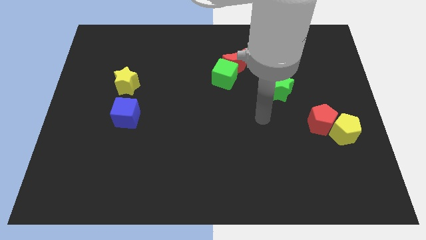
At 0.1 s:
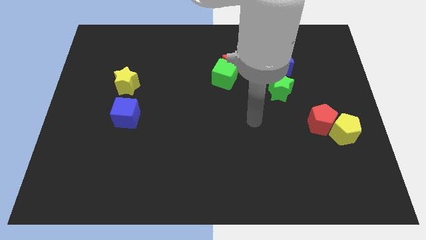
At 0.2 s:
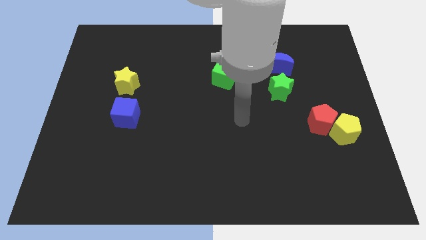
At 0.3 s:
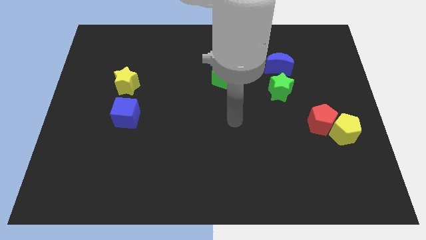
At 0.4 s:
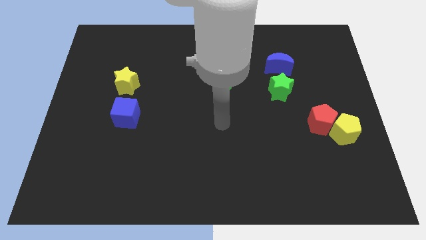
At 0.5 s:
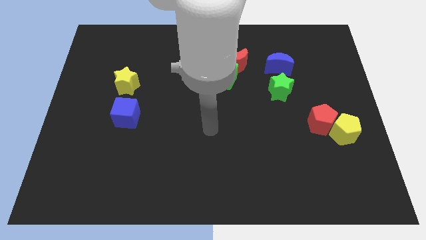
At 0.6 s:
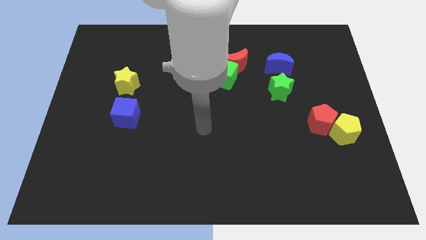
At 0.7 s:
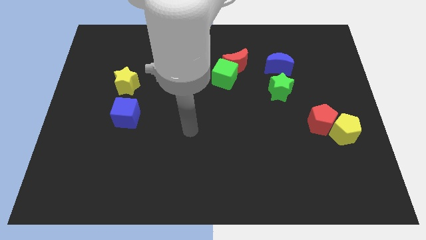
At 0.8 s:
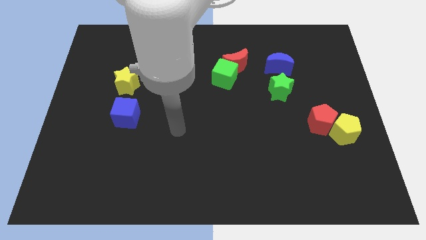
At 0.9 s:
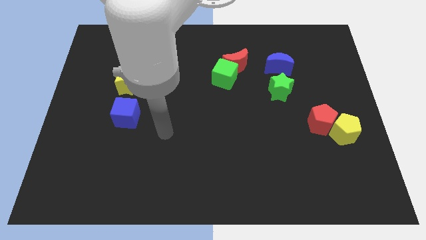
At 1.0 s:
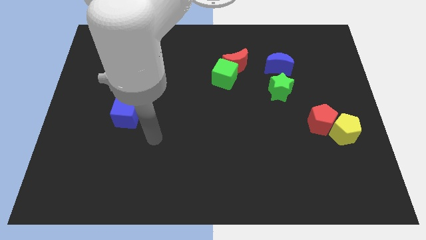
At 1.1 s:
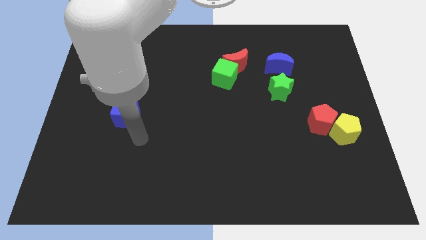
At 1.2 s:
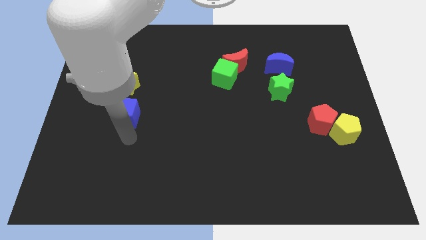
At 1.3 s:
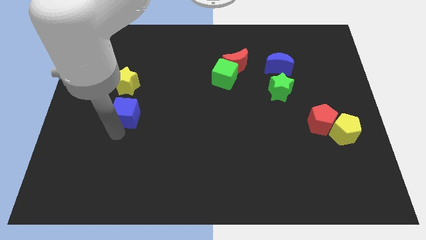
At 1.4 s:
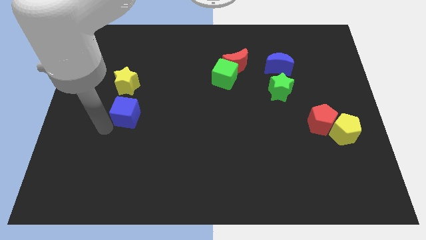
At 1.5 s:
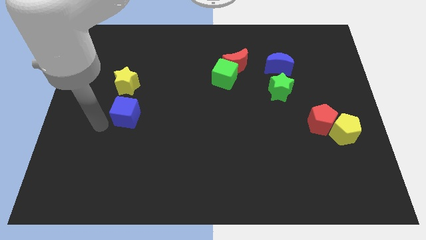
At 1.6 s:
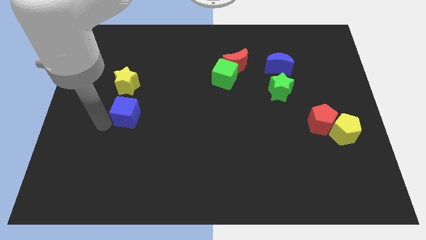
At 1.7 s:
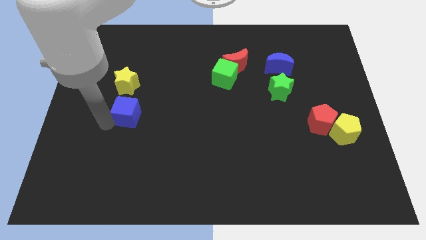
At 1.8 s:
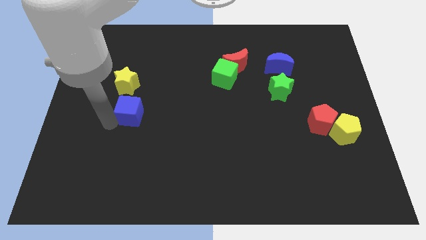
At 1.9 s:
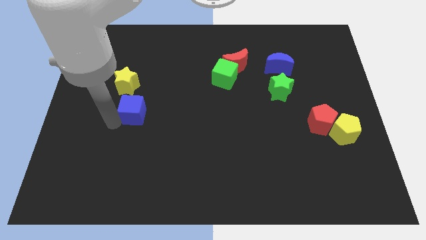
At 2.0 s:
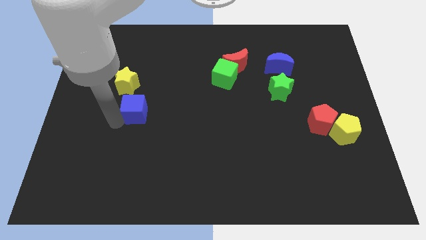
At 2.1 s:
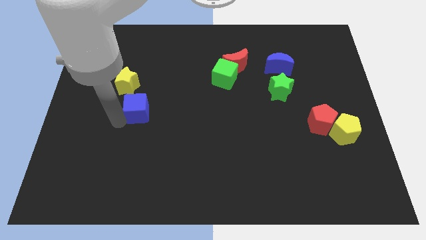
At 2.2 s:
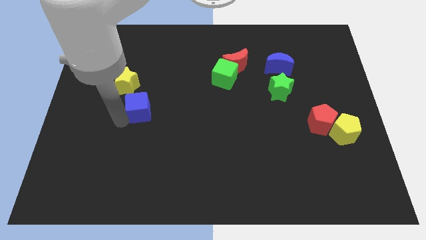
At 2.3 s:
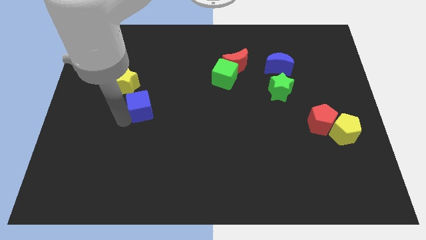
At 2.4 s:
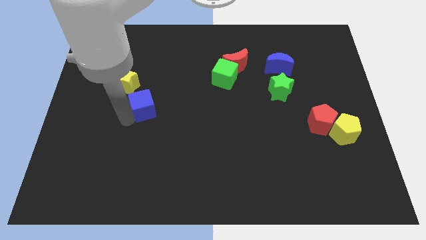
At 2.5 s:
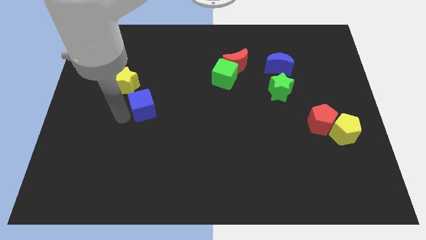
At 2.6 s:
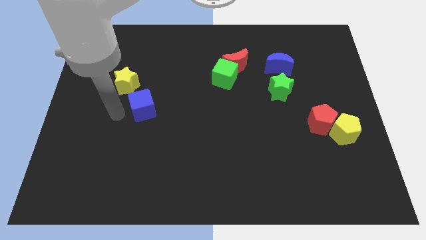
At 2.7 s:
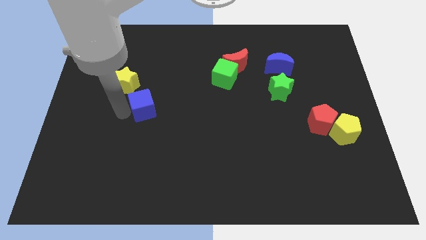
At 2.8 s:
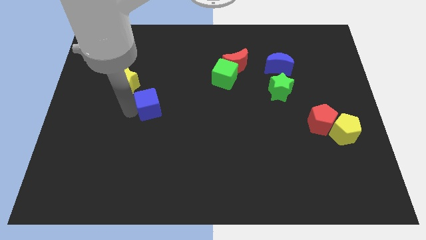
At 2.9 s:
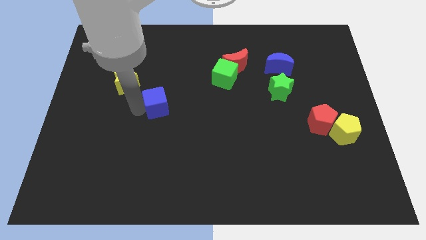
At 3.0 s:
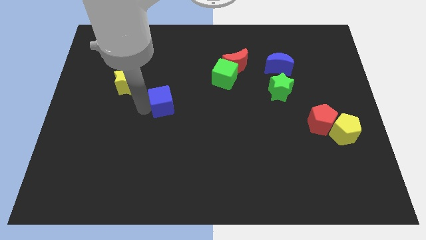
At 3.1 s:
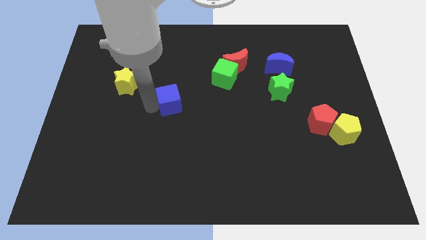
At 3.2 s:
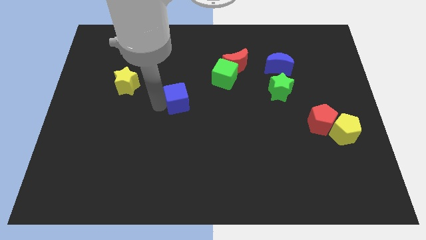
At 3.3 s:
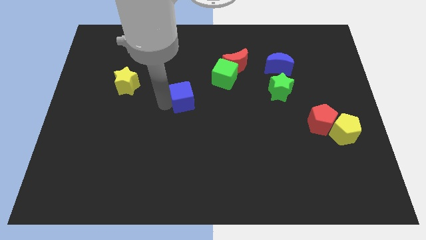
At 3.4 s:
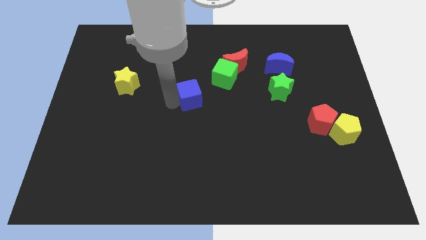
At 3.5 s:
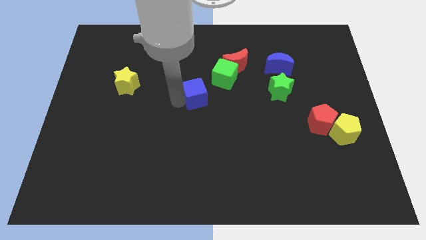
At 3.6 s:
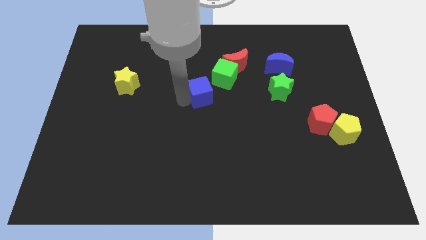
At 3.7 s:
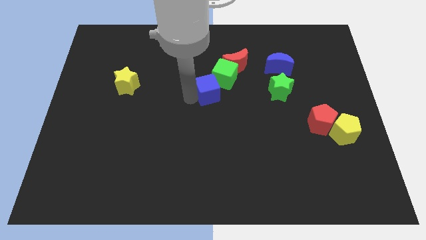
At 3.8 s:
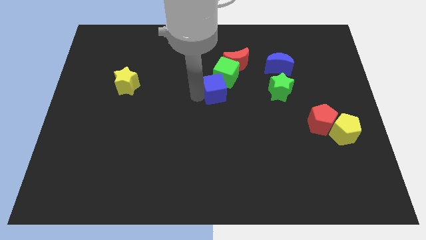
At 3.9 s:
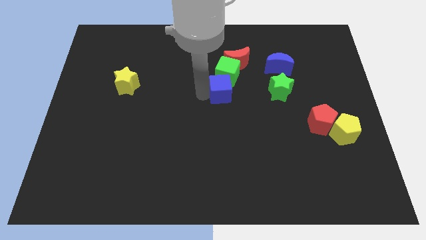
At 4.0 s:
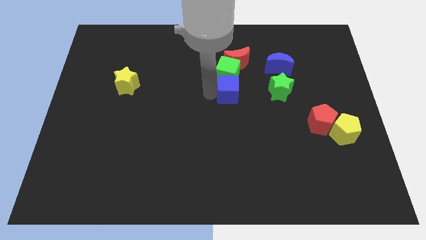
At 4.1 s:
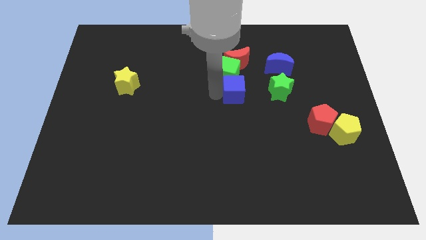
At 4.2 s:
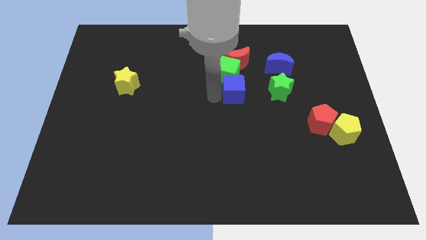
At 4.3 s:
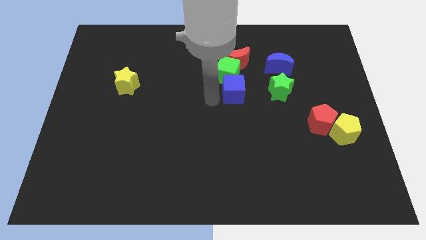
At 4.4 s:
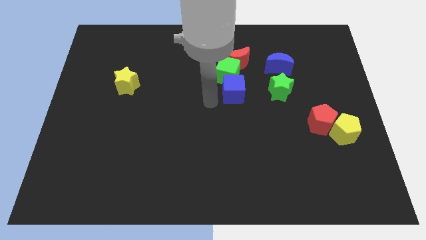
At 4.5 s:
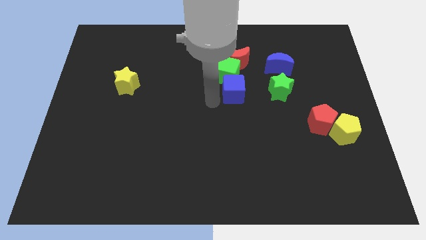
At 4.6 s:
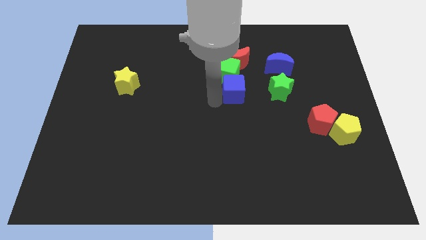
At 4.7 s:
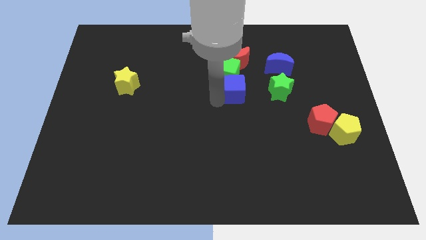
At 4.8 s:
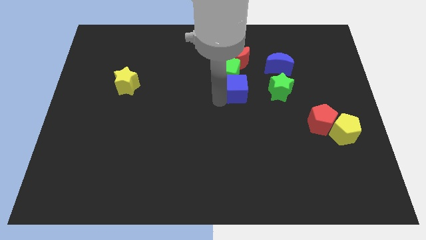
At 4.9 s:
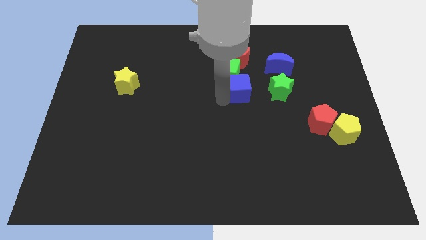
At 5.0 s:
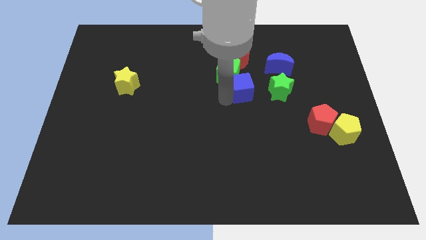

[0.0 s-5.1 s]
slide the blue cube diagonally down and to the left of the blue moon

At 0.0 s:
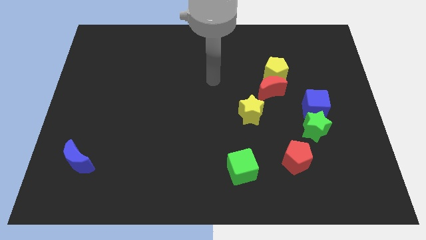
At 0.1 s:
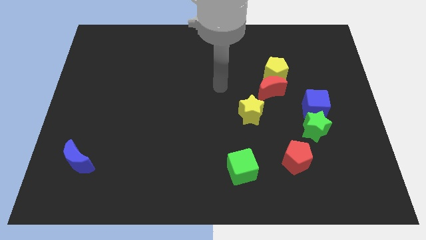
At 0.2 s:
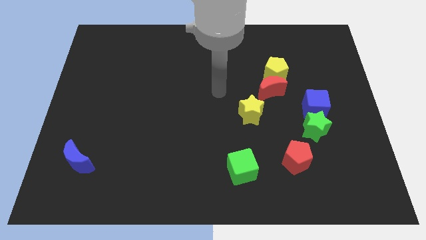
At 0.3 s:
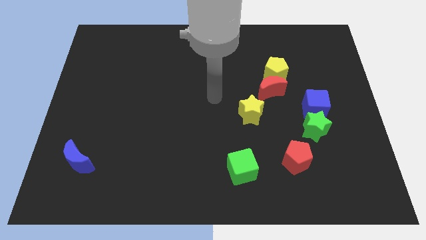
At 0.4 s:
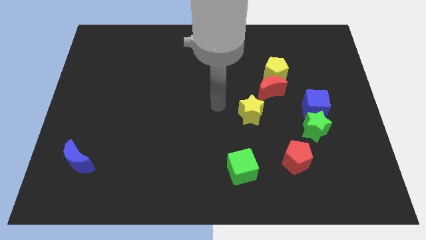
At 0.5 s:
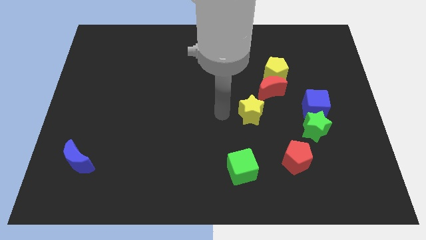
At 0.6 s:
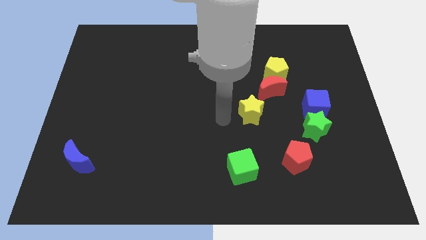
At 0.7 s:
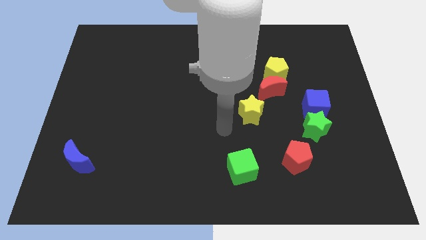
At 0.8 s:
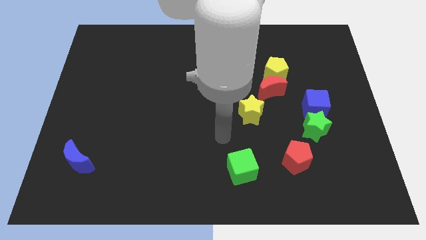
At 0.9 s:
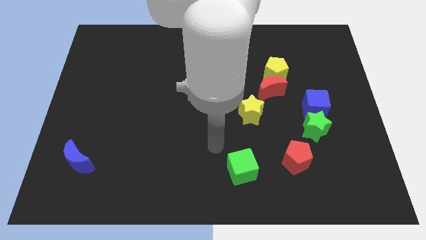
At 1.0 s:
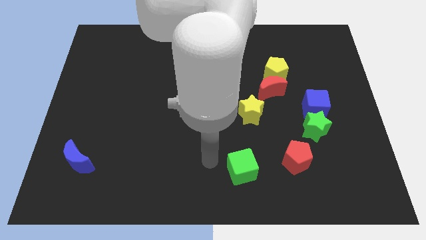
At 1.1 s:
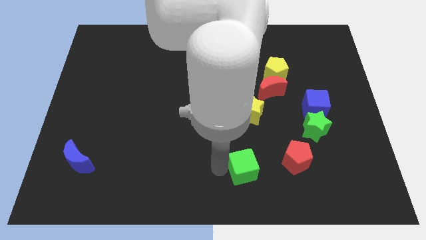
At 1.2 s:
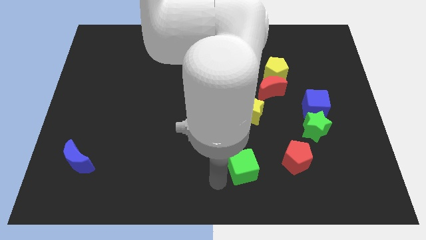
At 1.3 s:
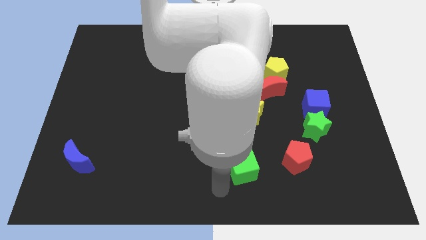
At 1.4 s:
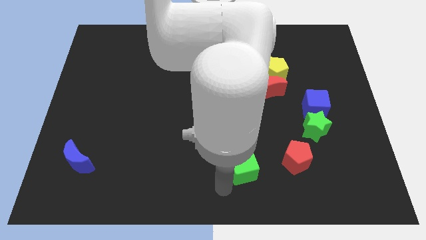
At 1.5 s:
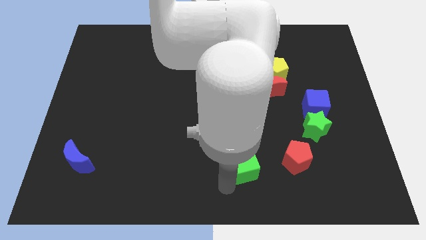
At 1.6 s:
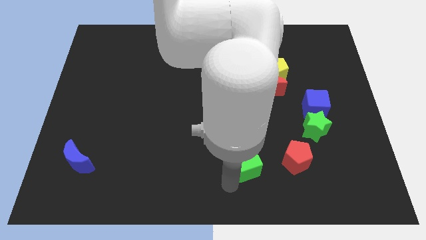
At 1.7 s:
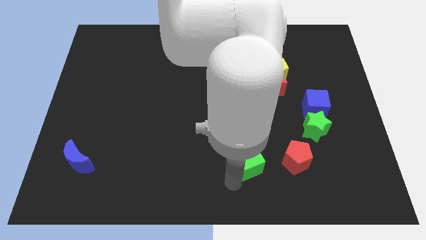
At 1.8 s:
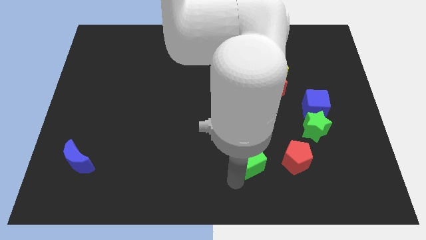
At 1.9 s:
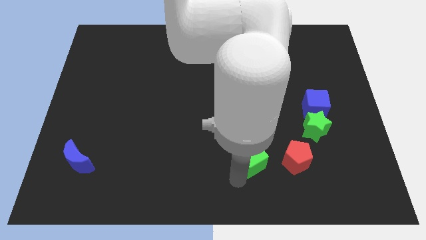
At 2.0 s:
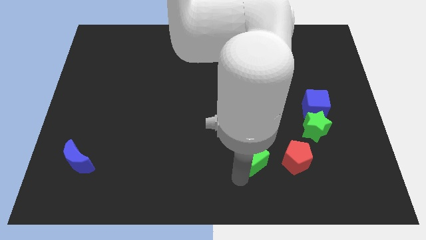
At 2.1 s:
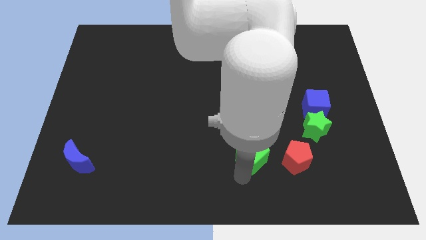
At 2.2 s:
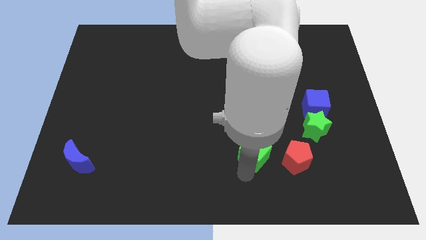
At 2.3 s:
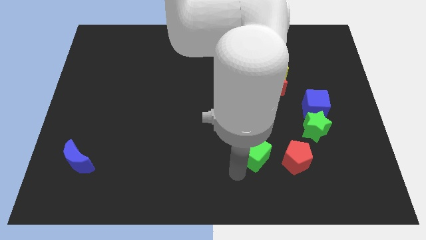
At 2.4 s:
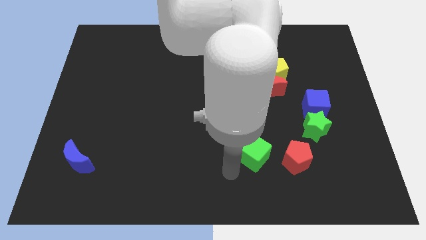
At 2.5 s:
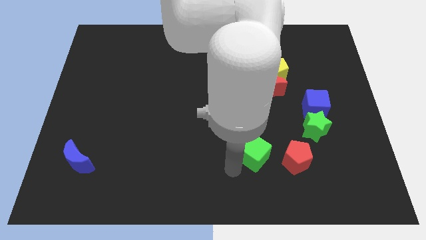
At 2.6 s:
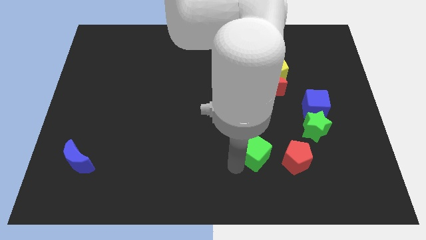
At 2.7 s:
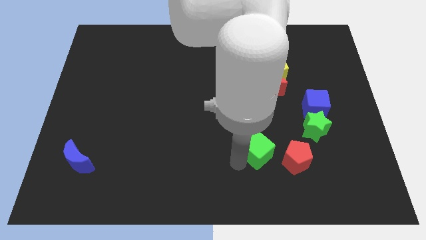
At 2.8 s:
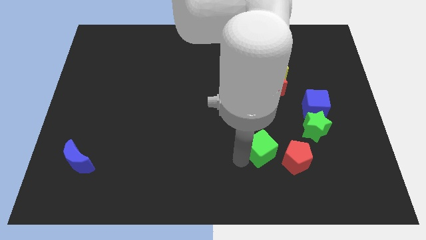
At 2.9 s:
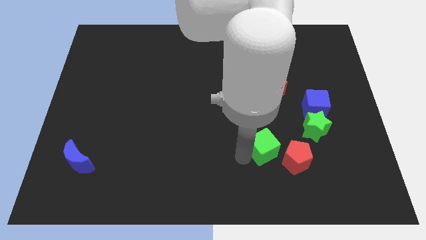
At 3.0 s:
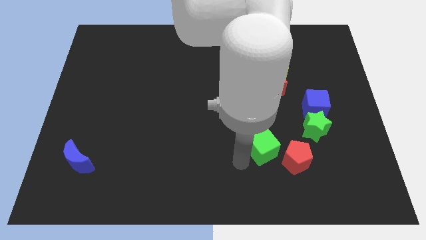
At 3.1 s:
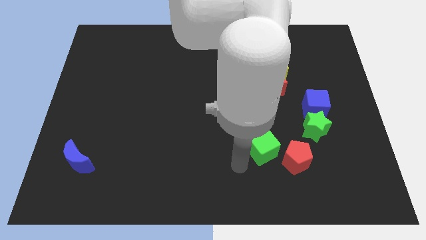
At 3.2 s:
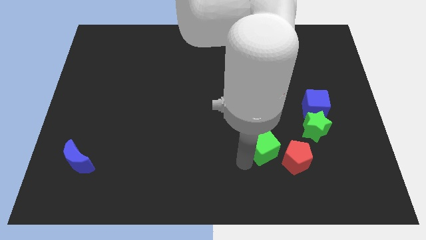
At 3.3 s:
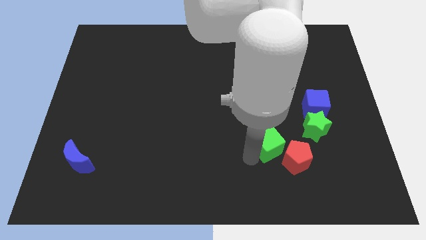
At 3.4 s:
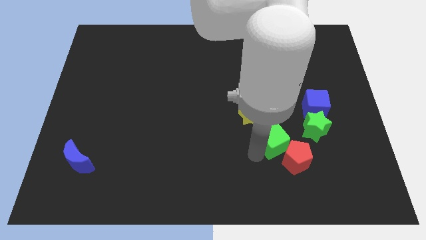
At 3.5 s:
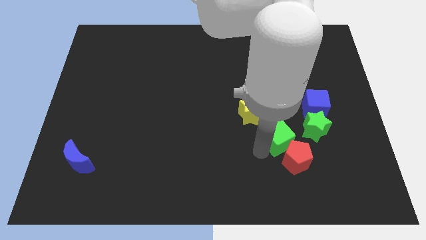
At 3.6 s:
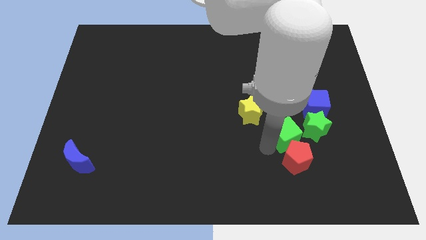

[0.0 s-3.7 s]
slide the green cube to the bottom left of the blue cube
